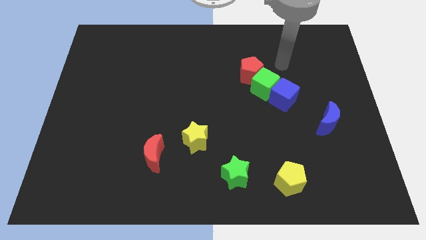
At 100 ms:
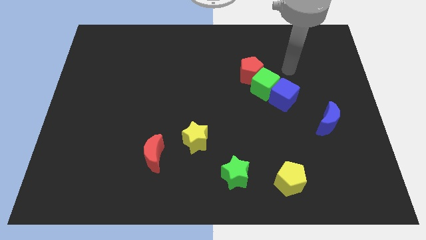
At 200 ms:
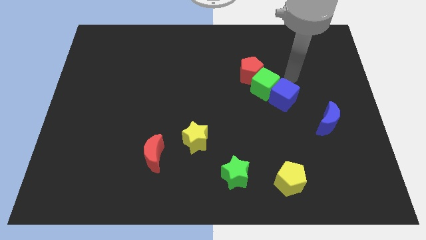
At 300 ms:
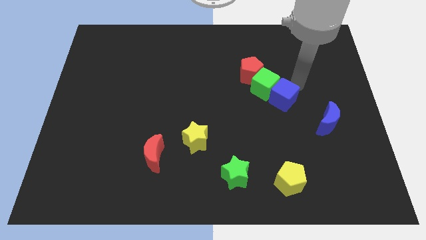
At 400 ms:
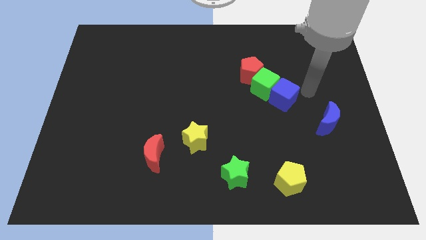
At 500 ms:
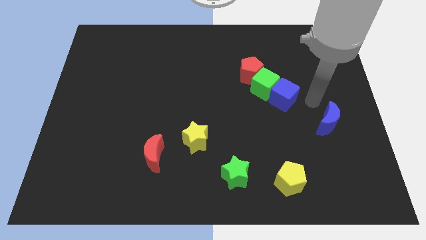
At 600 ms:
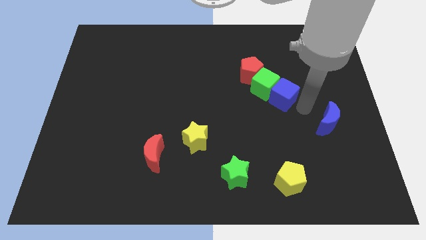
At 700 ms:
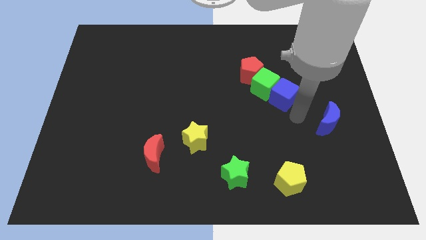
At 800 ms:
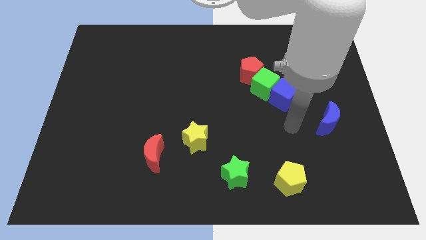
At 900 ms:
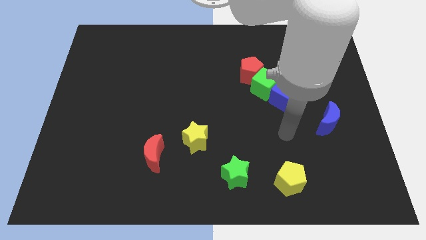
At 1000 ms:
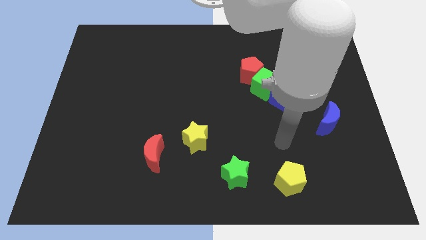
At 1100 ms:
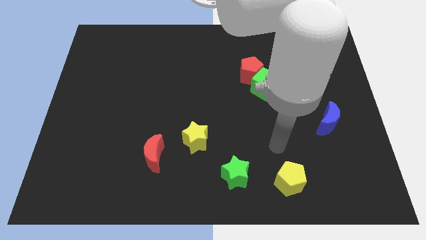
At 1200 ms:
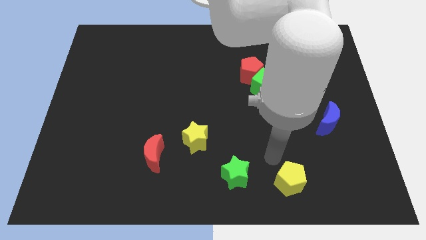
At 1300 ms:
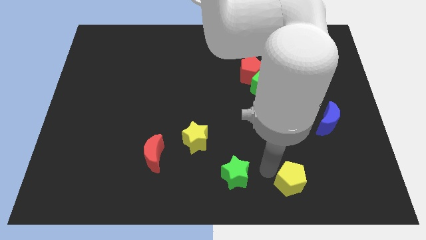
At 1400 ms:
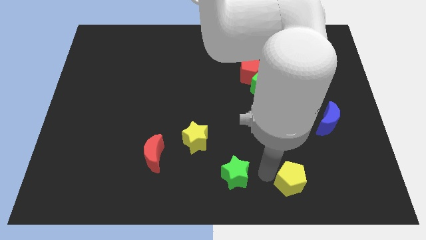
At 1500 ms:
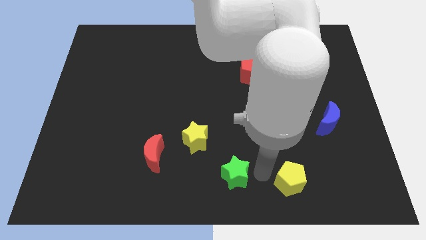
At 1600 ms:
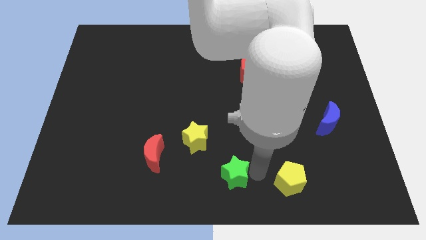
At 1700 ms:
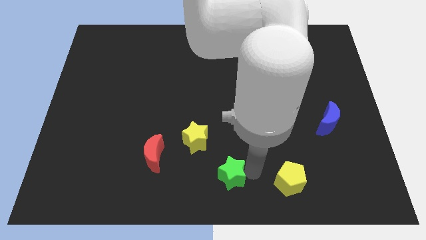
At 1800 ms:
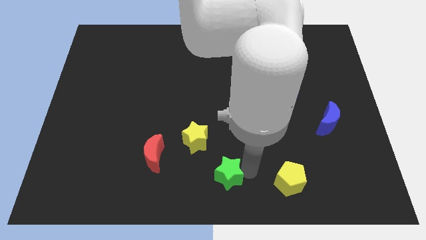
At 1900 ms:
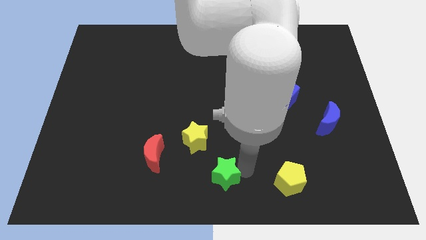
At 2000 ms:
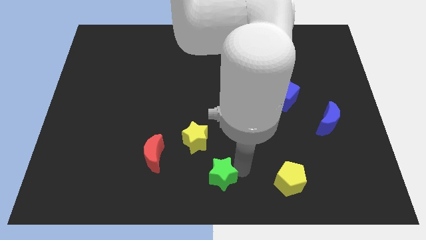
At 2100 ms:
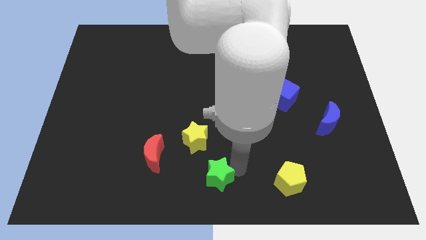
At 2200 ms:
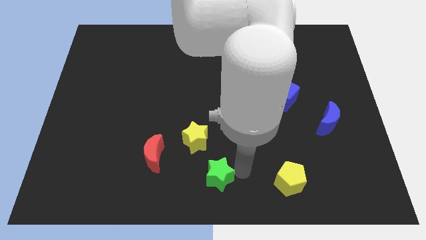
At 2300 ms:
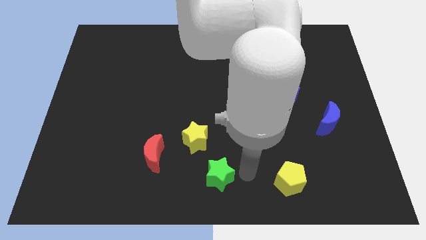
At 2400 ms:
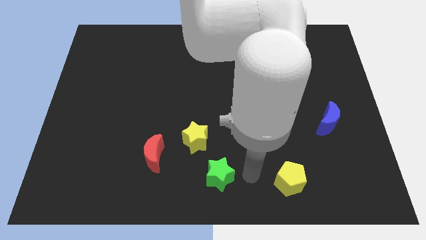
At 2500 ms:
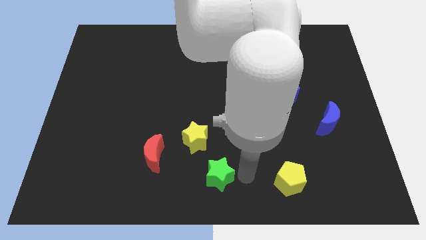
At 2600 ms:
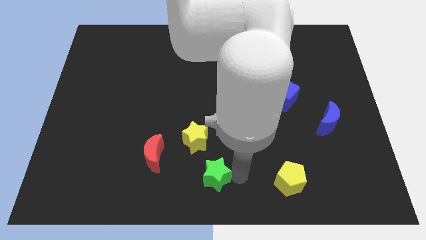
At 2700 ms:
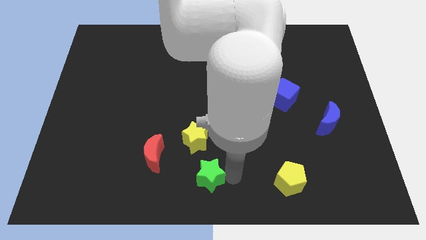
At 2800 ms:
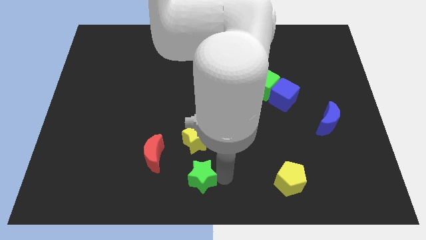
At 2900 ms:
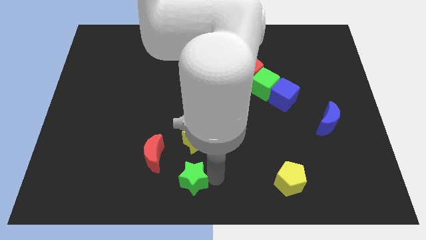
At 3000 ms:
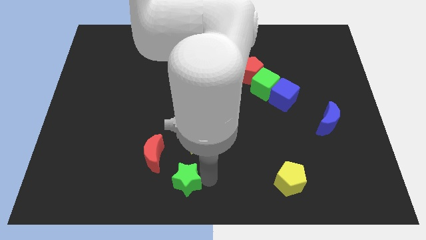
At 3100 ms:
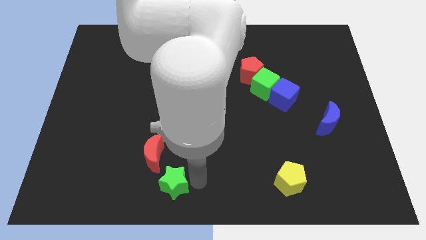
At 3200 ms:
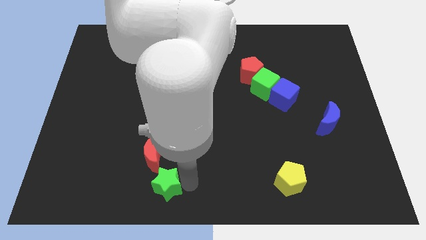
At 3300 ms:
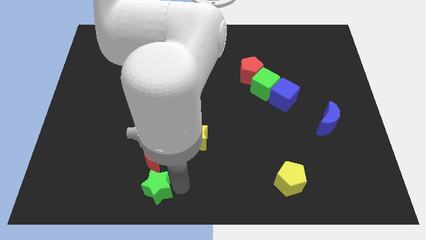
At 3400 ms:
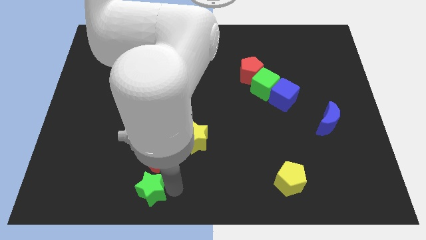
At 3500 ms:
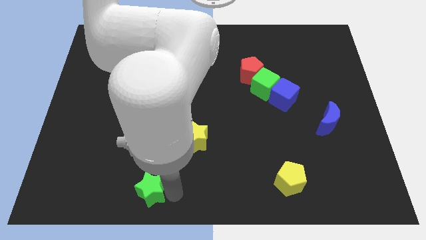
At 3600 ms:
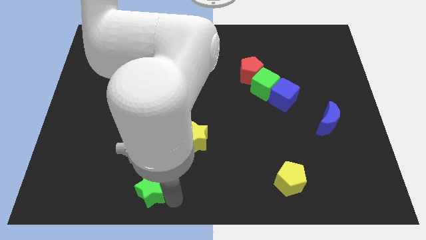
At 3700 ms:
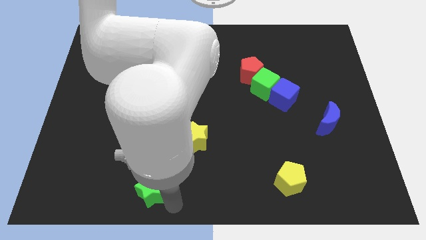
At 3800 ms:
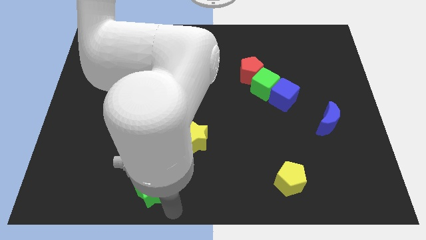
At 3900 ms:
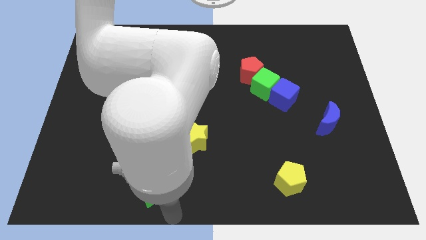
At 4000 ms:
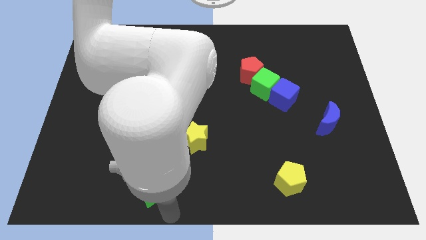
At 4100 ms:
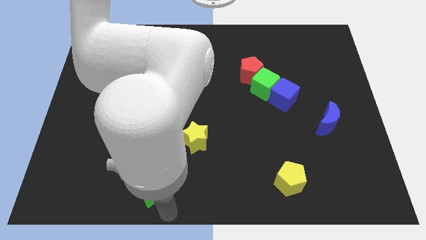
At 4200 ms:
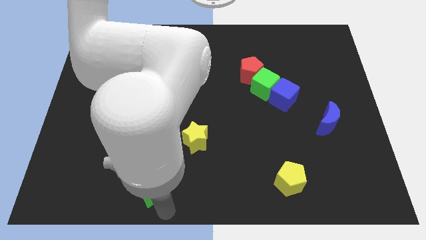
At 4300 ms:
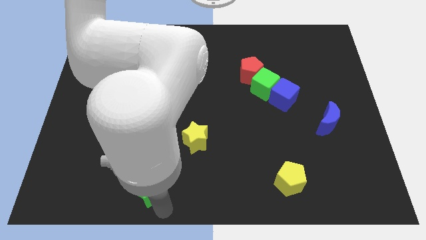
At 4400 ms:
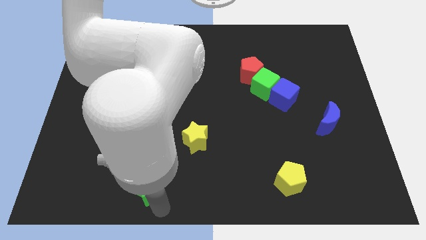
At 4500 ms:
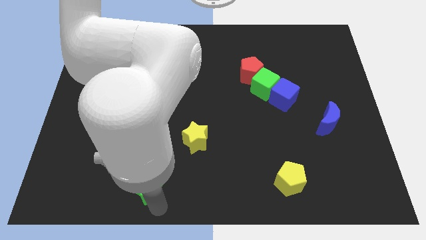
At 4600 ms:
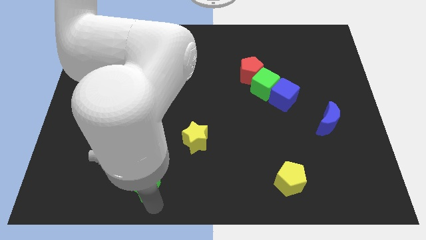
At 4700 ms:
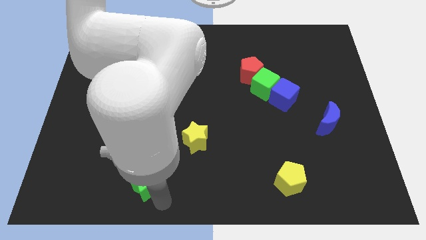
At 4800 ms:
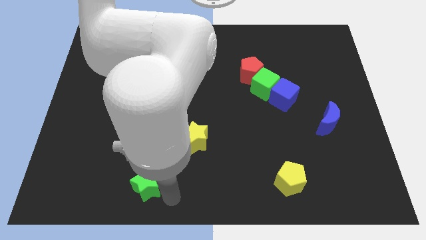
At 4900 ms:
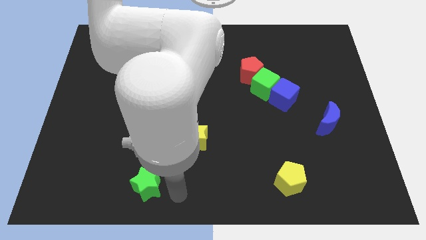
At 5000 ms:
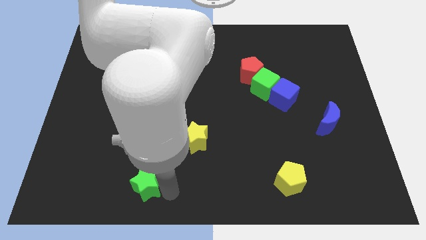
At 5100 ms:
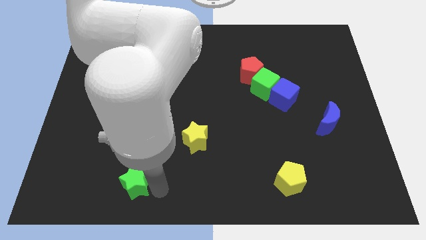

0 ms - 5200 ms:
push the green star left

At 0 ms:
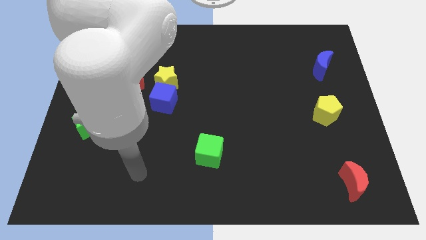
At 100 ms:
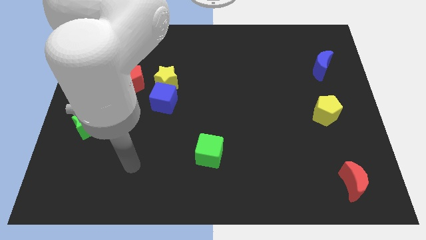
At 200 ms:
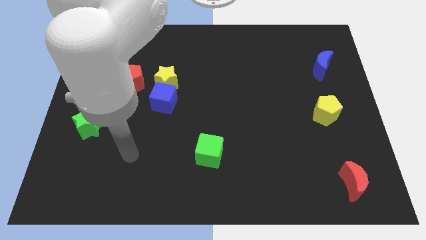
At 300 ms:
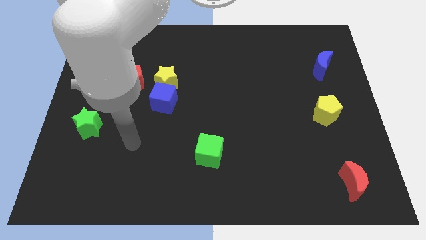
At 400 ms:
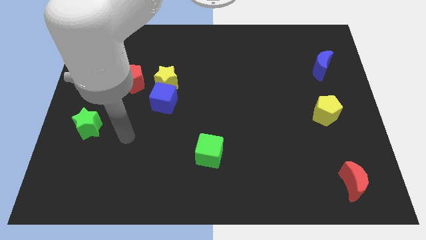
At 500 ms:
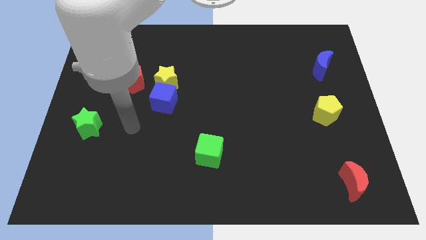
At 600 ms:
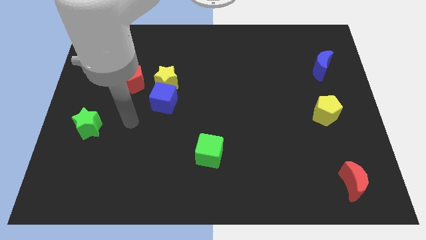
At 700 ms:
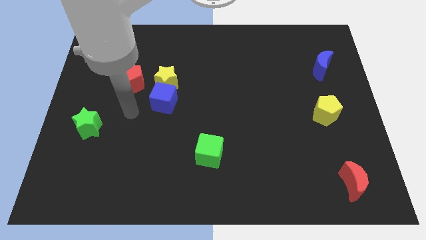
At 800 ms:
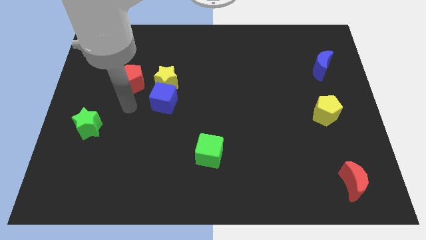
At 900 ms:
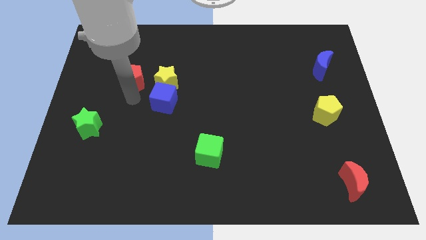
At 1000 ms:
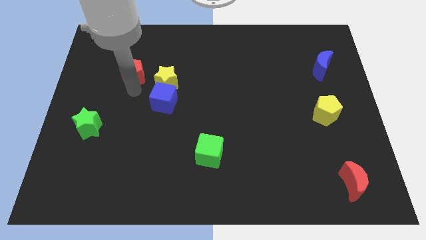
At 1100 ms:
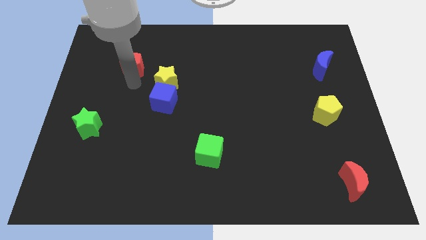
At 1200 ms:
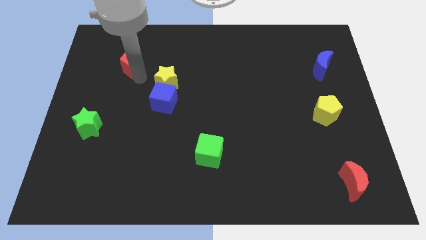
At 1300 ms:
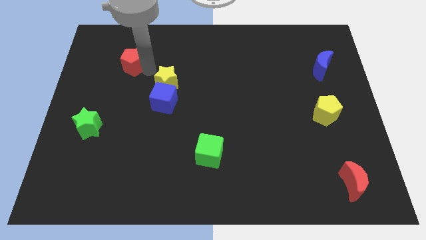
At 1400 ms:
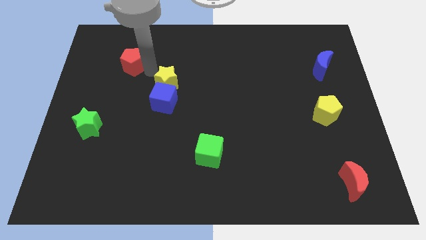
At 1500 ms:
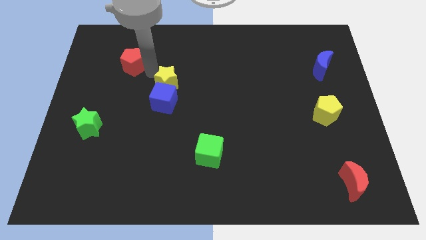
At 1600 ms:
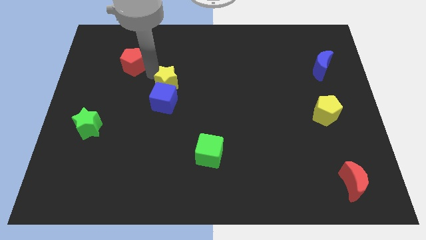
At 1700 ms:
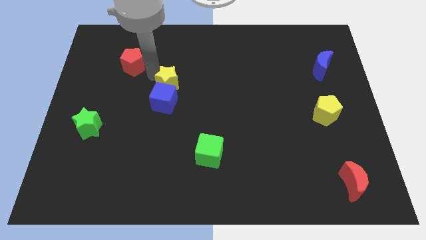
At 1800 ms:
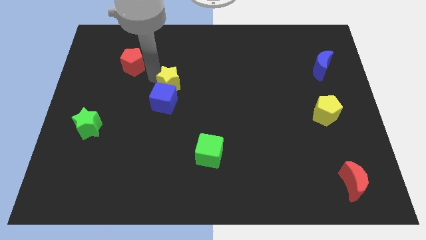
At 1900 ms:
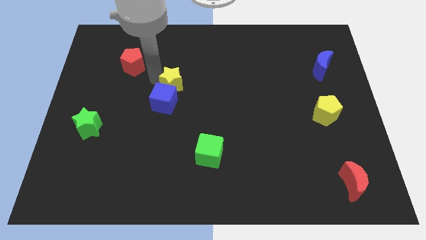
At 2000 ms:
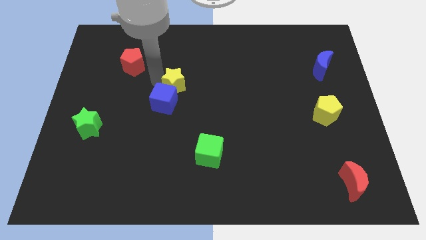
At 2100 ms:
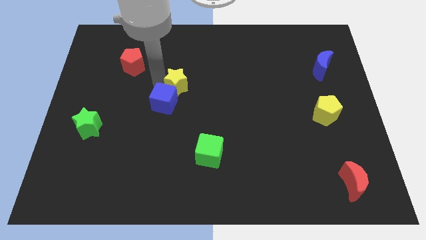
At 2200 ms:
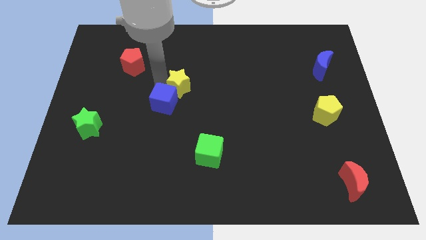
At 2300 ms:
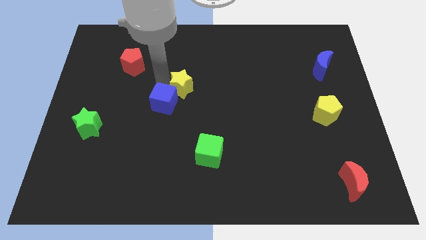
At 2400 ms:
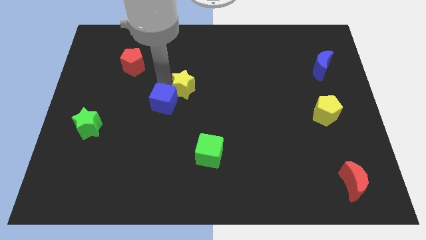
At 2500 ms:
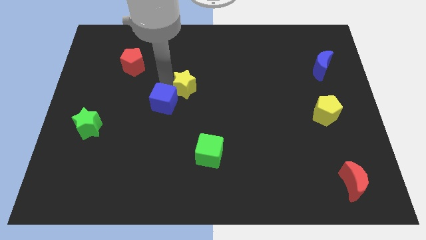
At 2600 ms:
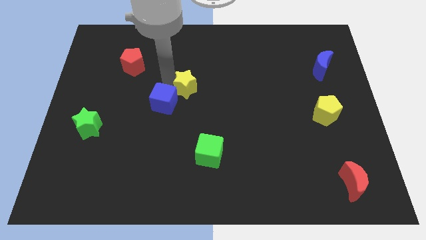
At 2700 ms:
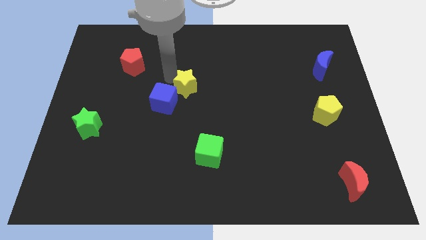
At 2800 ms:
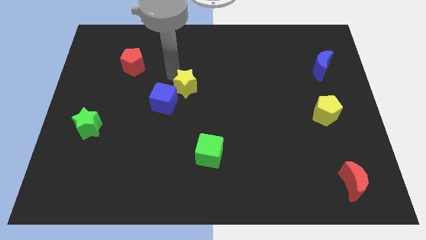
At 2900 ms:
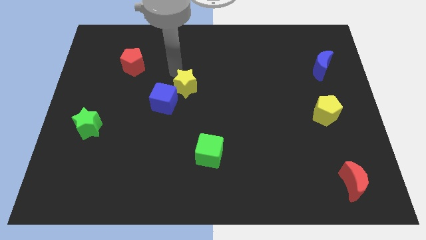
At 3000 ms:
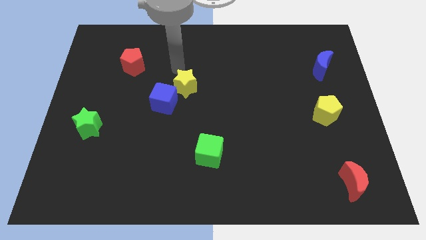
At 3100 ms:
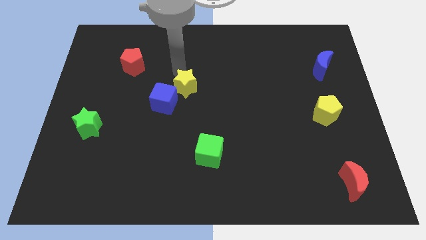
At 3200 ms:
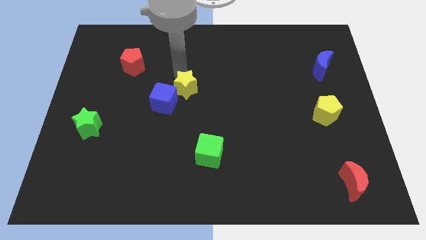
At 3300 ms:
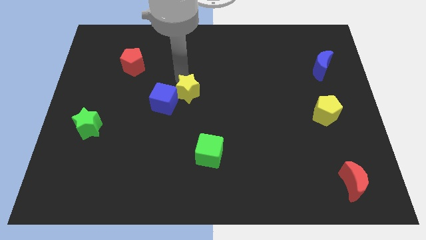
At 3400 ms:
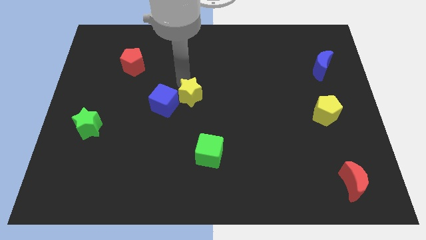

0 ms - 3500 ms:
push the yellow star diagonally down and right a little bit
